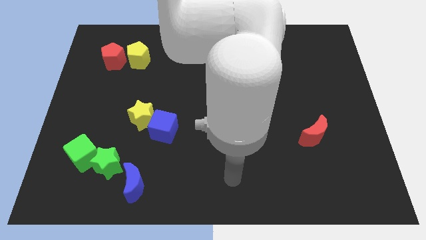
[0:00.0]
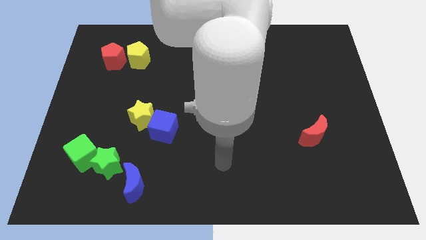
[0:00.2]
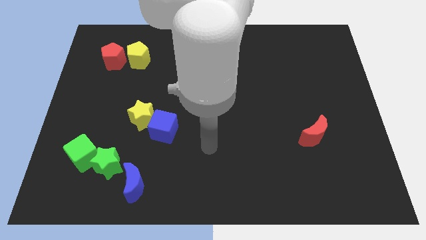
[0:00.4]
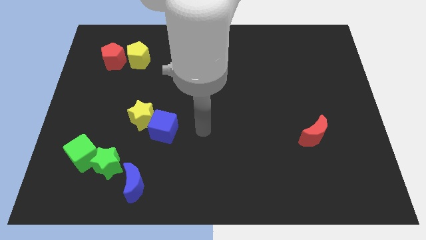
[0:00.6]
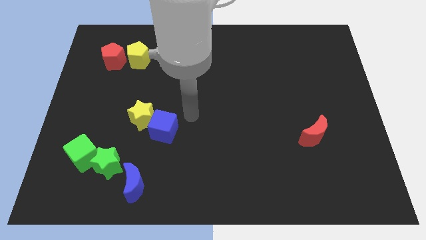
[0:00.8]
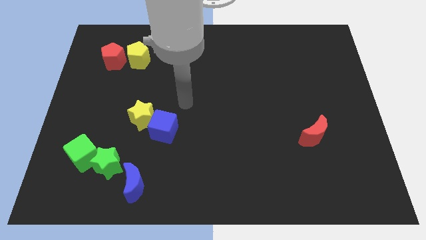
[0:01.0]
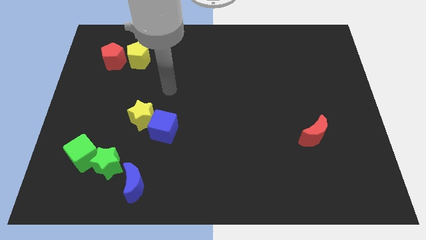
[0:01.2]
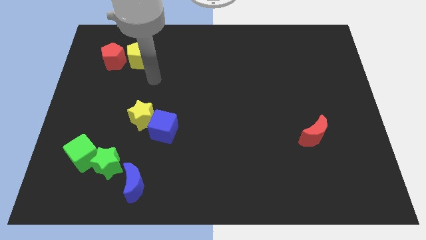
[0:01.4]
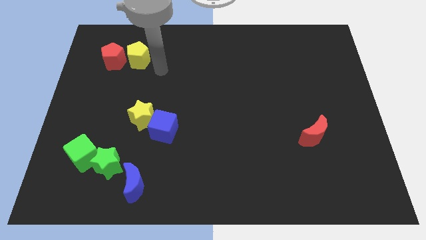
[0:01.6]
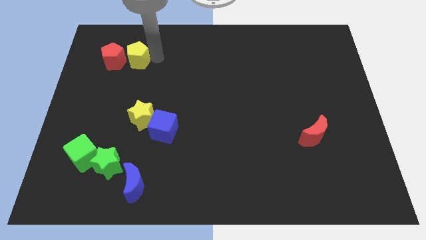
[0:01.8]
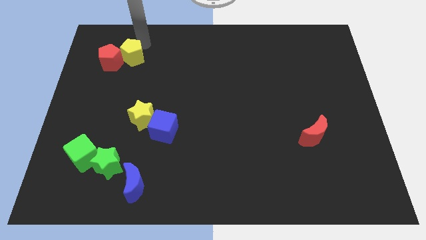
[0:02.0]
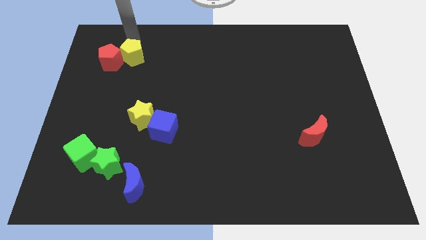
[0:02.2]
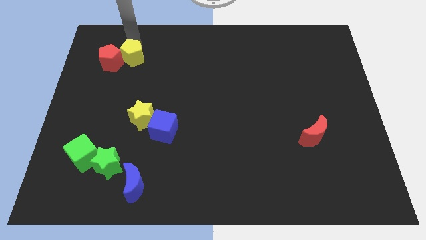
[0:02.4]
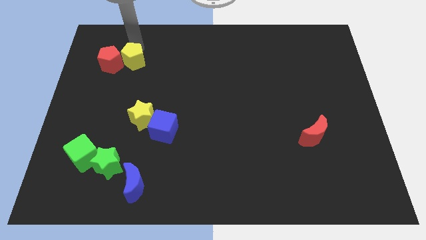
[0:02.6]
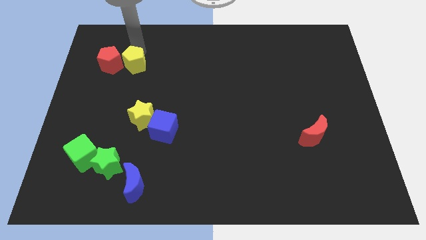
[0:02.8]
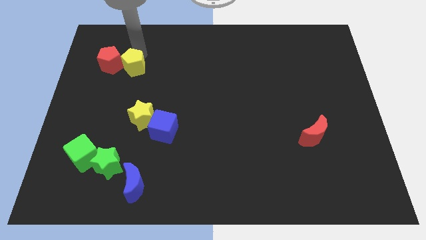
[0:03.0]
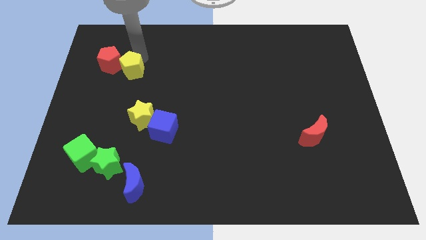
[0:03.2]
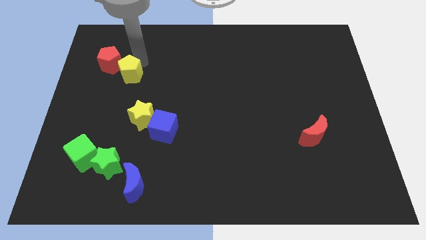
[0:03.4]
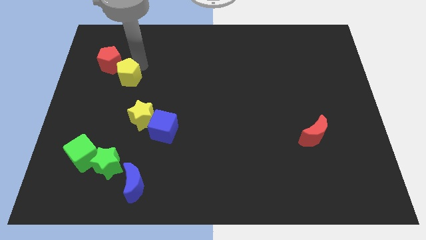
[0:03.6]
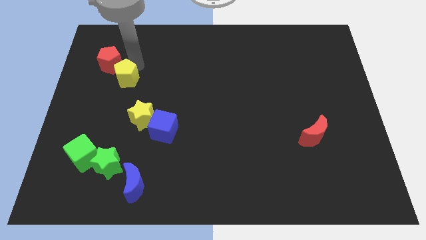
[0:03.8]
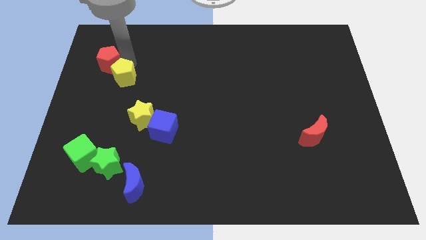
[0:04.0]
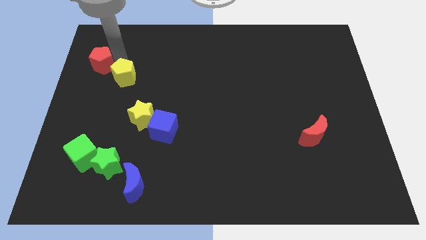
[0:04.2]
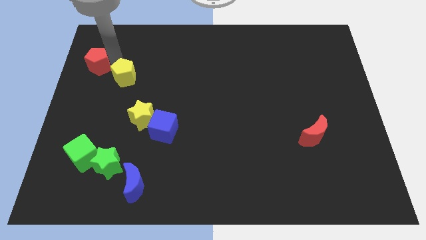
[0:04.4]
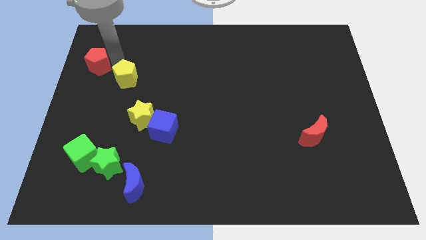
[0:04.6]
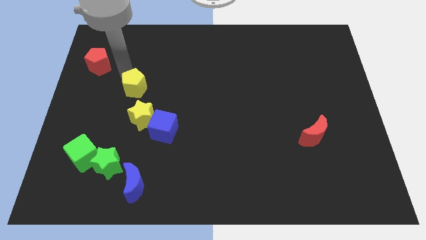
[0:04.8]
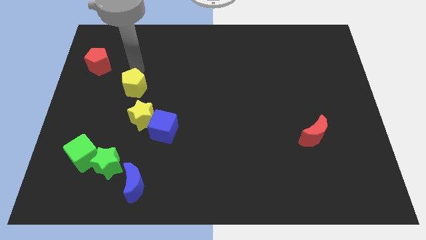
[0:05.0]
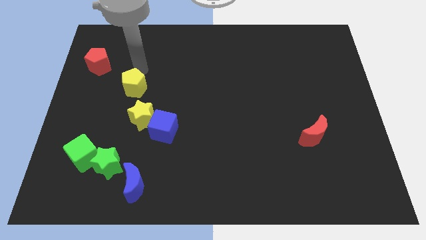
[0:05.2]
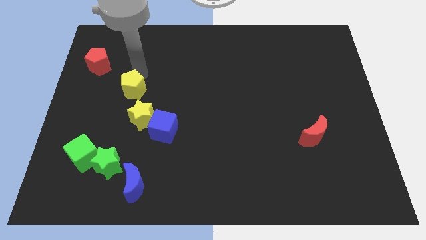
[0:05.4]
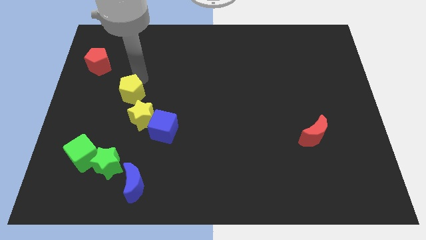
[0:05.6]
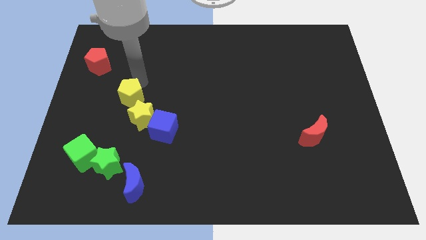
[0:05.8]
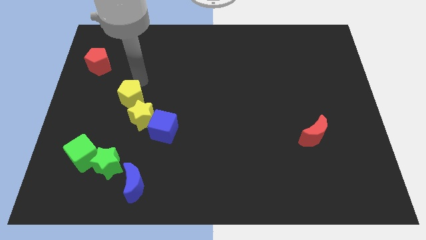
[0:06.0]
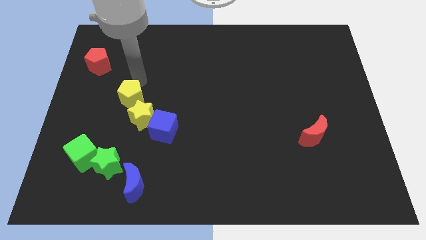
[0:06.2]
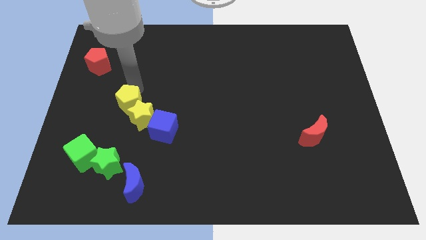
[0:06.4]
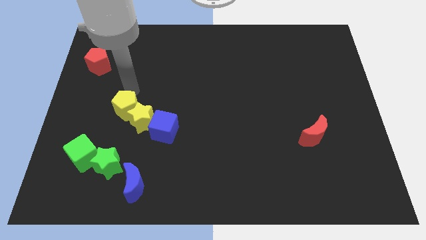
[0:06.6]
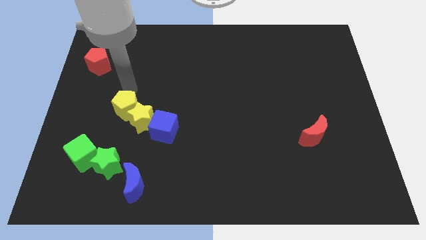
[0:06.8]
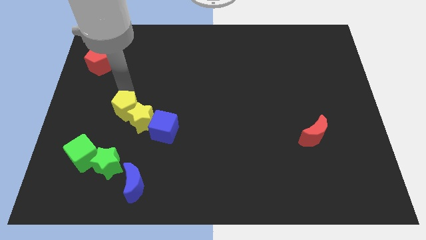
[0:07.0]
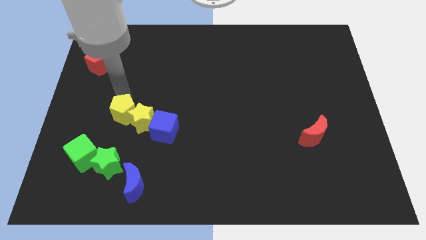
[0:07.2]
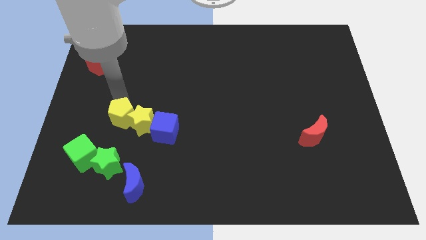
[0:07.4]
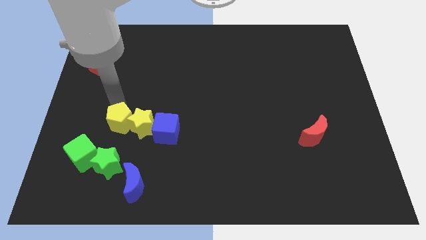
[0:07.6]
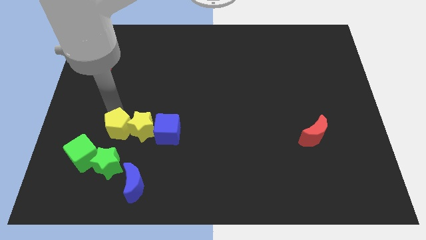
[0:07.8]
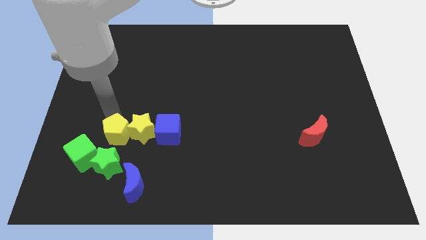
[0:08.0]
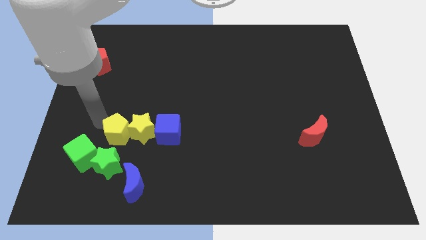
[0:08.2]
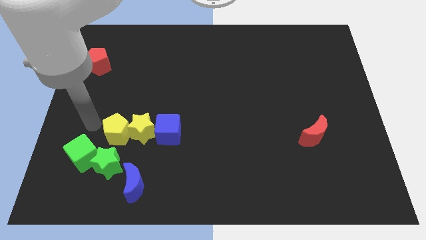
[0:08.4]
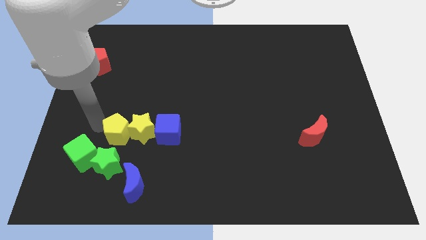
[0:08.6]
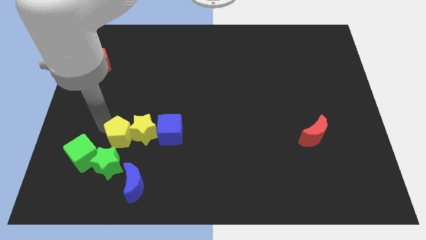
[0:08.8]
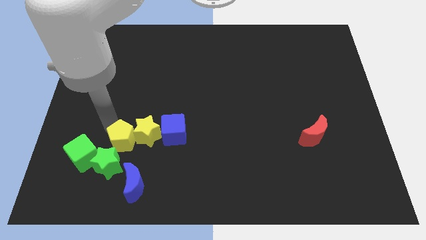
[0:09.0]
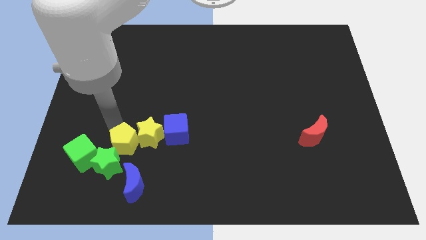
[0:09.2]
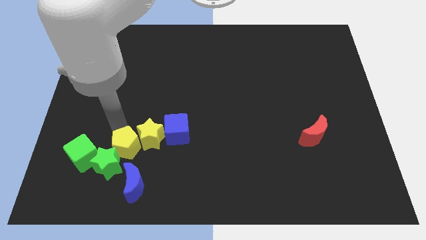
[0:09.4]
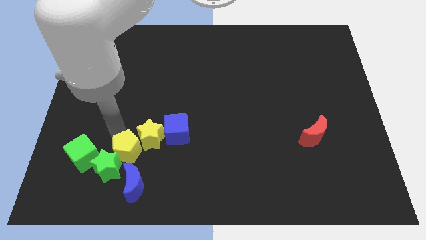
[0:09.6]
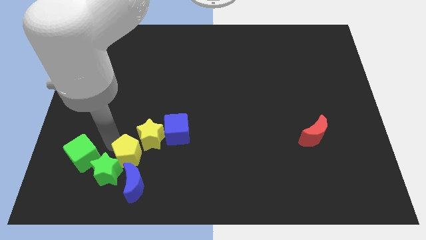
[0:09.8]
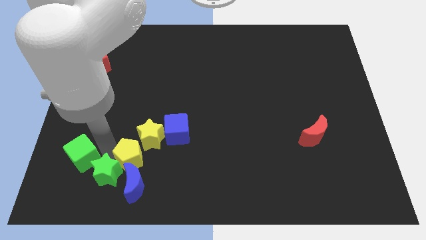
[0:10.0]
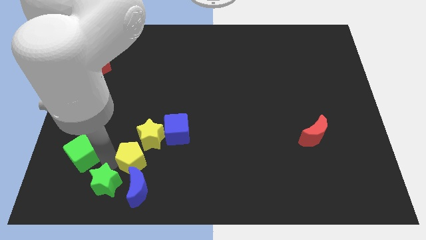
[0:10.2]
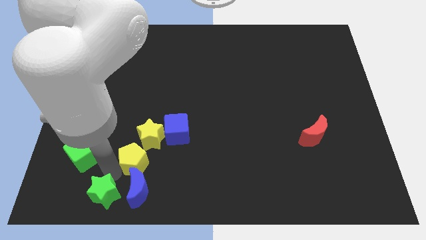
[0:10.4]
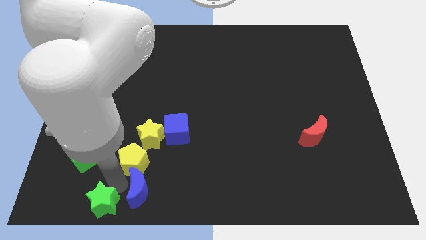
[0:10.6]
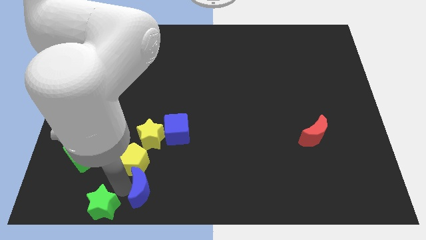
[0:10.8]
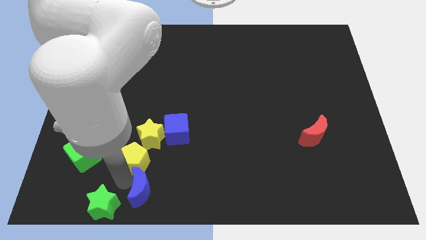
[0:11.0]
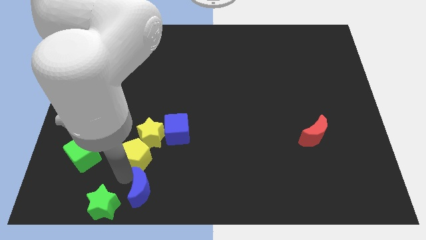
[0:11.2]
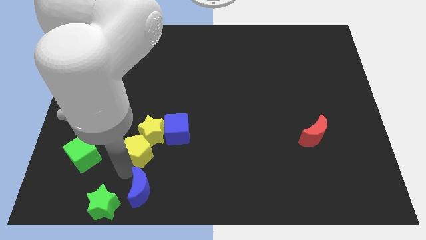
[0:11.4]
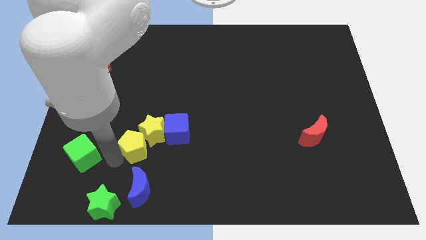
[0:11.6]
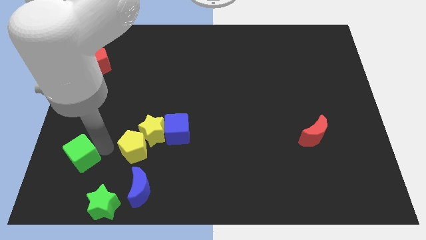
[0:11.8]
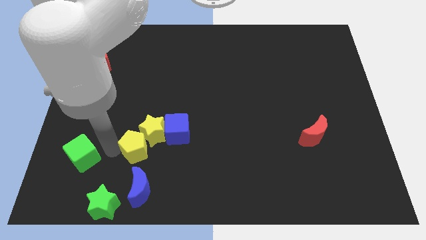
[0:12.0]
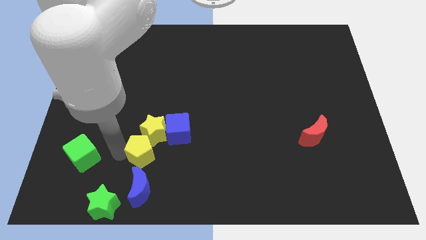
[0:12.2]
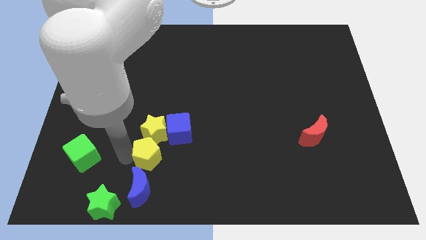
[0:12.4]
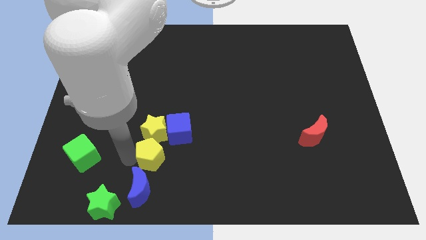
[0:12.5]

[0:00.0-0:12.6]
put the yellow pentagon to the bottom right of the yellow star

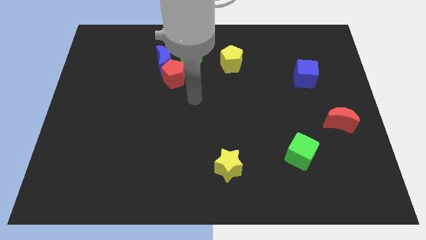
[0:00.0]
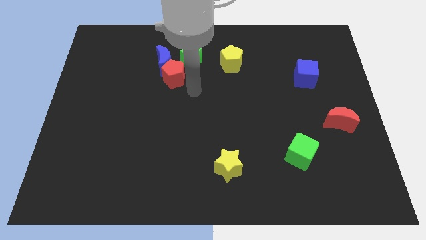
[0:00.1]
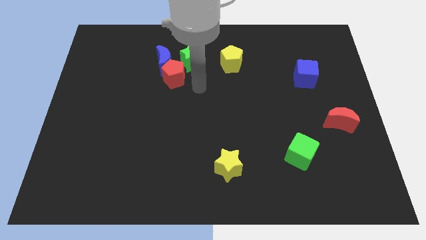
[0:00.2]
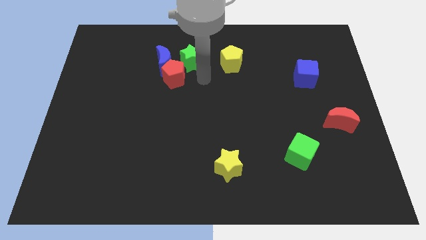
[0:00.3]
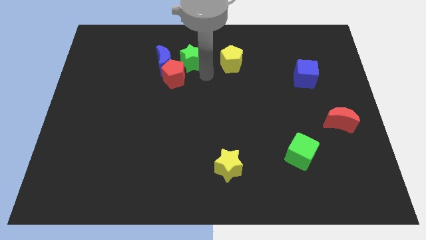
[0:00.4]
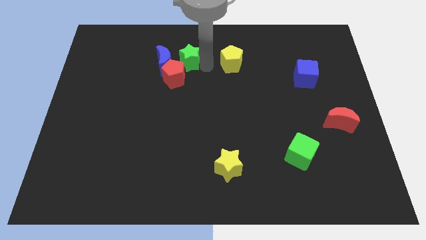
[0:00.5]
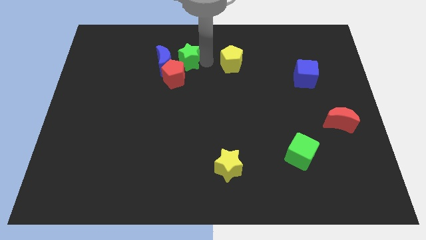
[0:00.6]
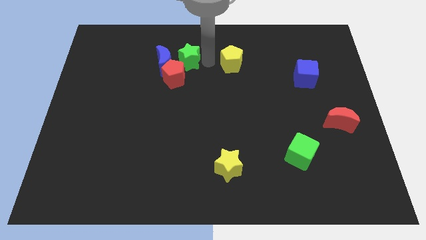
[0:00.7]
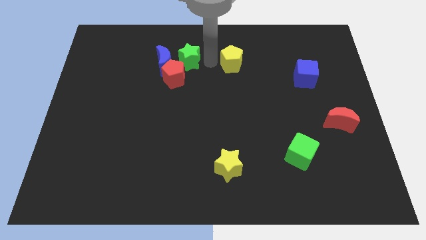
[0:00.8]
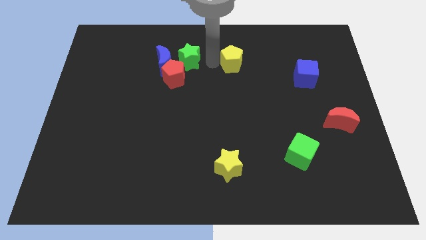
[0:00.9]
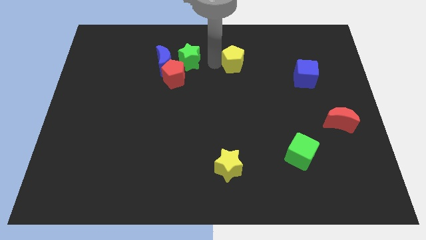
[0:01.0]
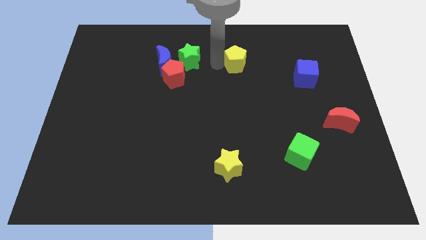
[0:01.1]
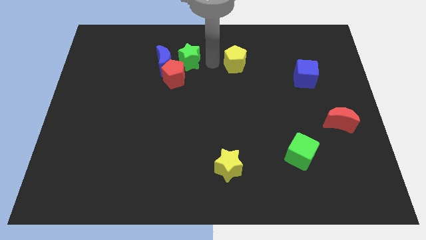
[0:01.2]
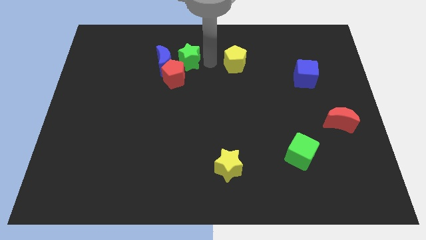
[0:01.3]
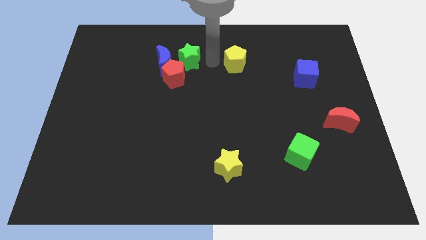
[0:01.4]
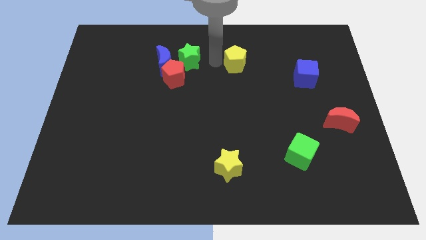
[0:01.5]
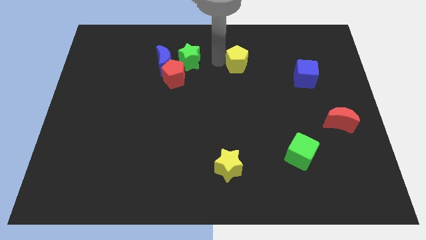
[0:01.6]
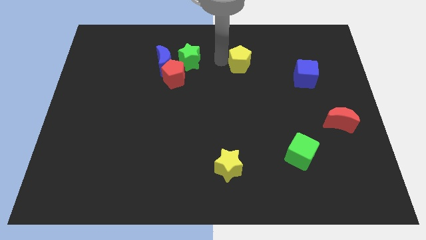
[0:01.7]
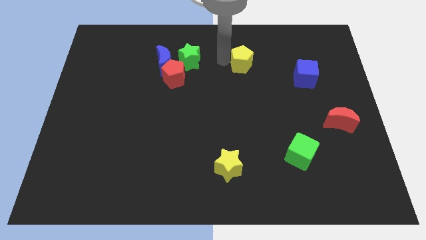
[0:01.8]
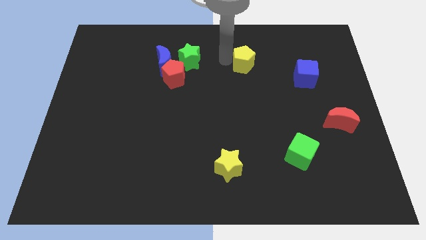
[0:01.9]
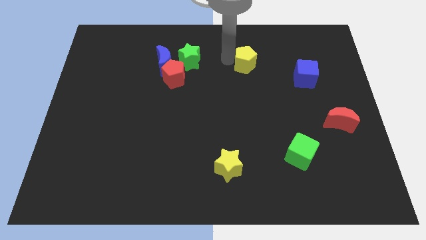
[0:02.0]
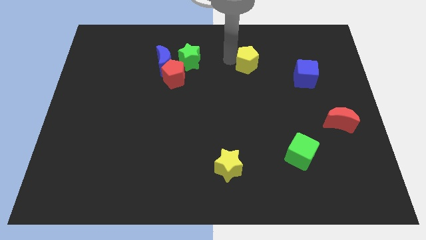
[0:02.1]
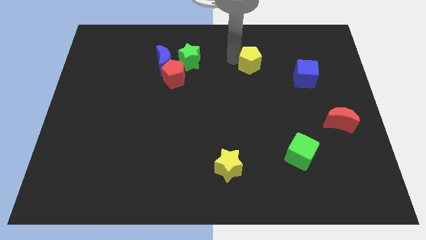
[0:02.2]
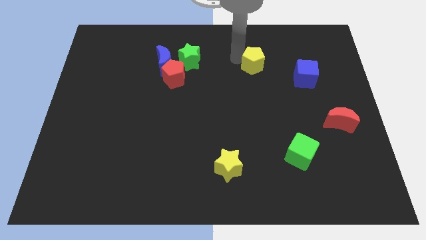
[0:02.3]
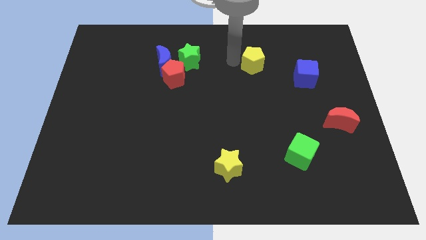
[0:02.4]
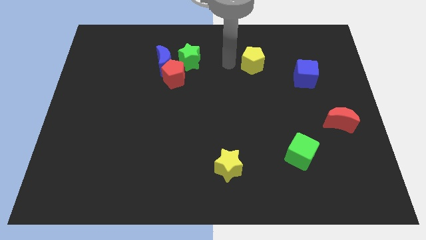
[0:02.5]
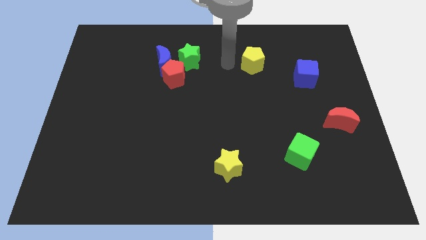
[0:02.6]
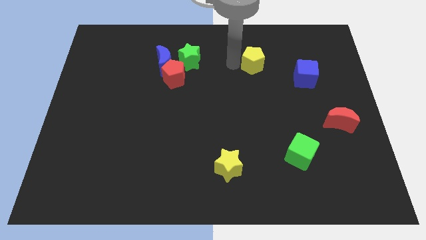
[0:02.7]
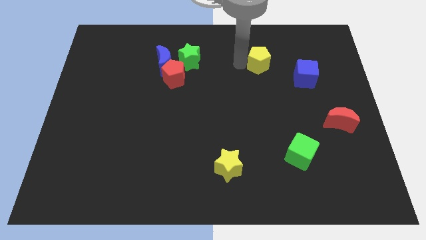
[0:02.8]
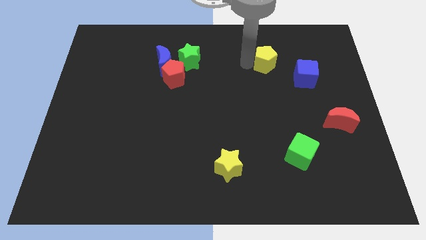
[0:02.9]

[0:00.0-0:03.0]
move the yellow pentagon to the top left side of the blue cube
